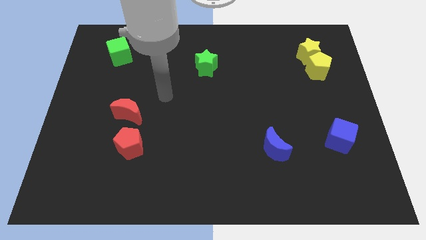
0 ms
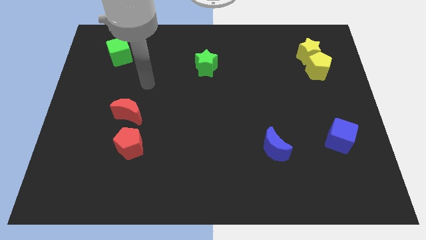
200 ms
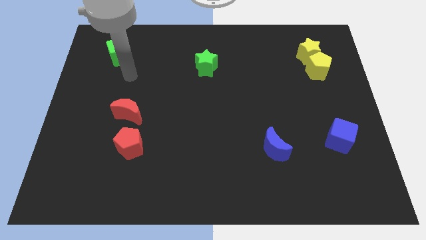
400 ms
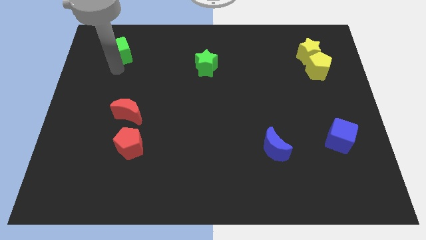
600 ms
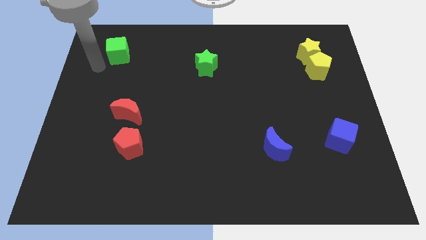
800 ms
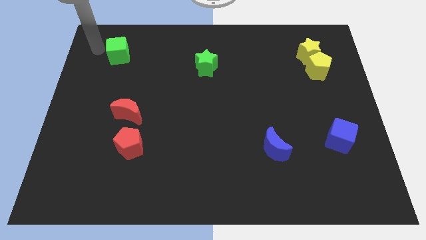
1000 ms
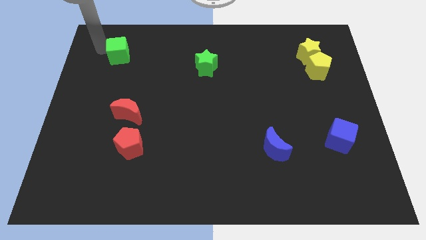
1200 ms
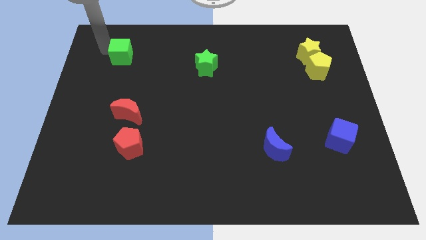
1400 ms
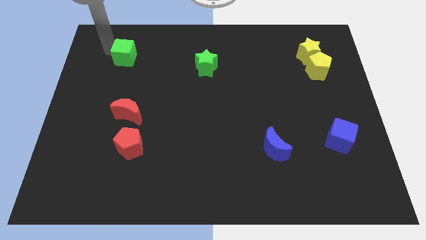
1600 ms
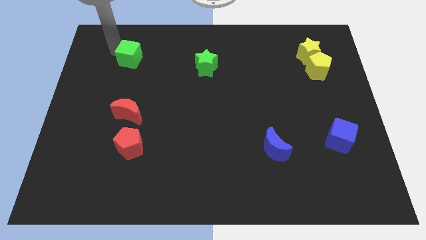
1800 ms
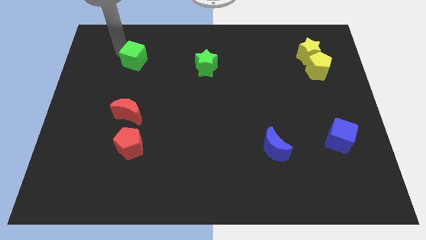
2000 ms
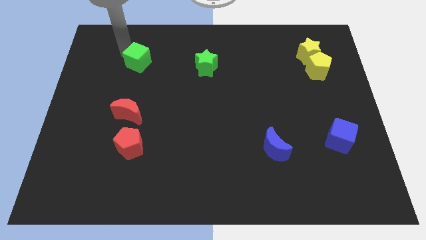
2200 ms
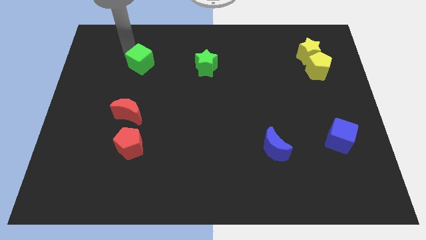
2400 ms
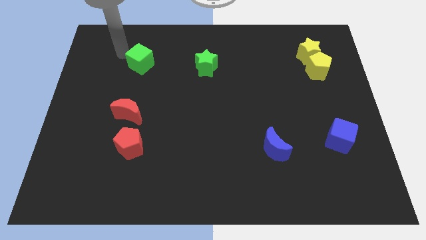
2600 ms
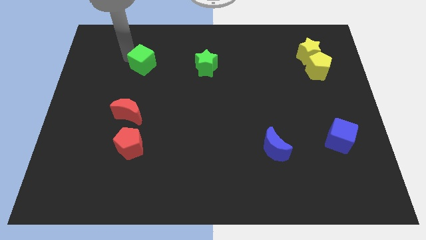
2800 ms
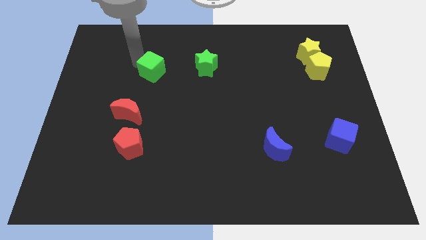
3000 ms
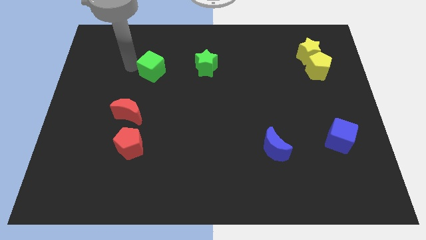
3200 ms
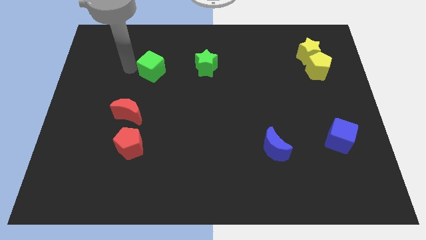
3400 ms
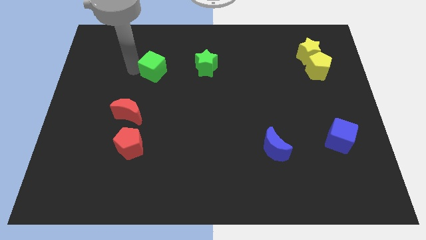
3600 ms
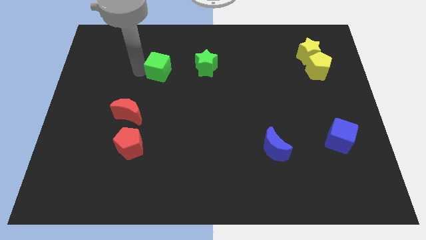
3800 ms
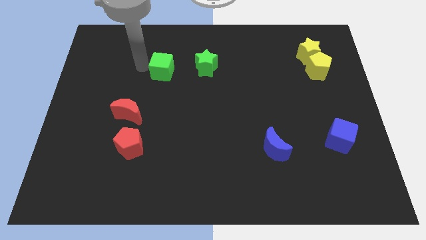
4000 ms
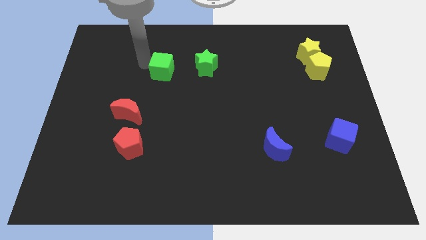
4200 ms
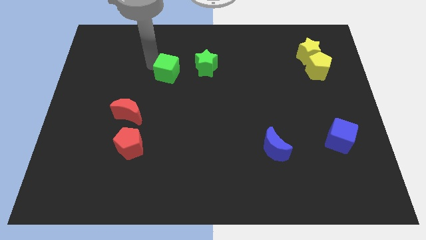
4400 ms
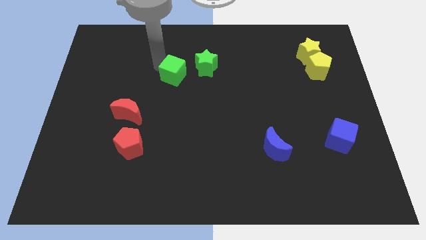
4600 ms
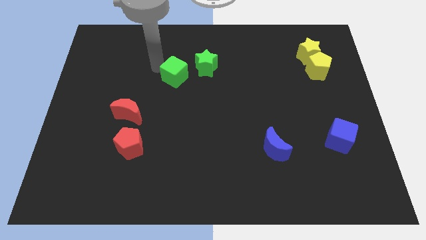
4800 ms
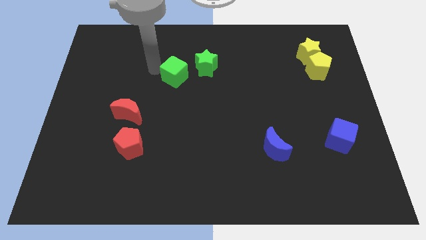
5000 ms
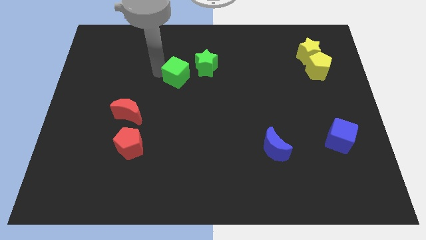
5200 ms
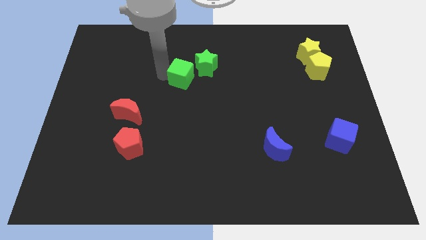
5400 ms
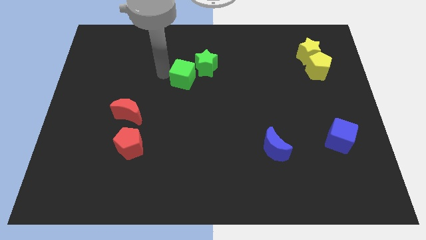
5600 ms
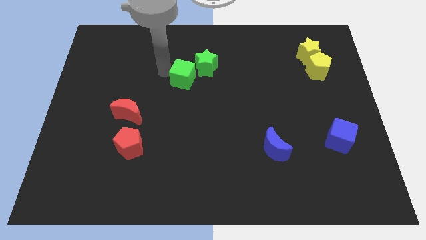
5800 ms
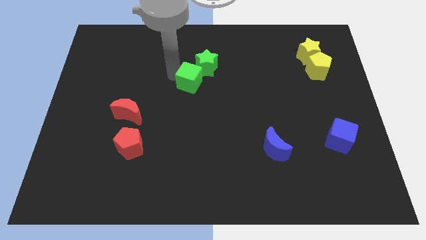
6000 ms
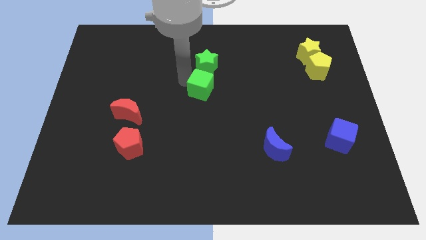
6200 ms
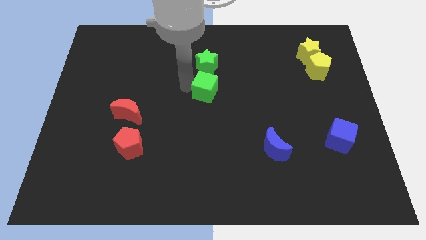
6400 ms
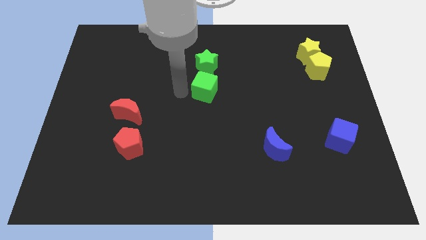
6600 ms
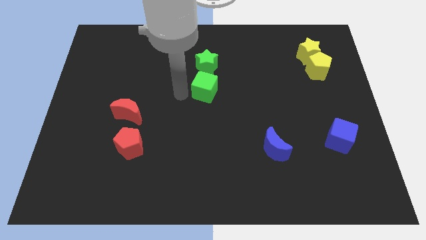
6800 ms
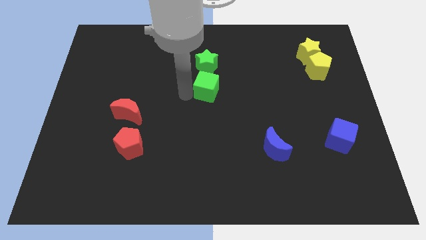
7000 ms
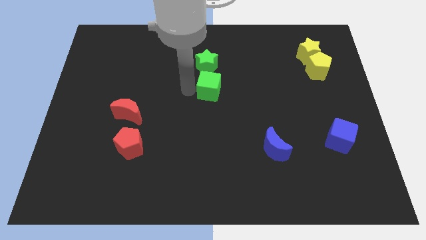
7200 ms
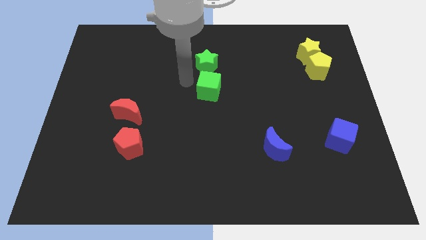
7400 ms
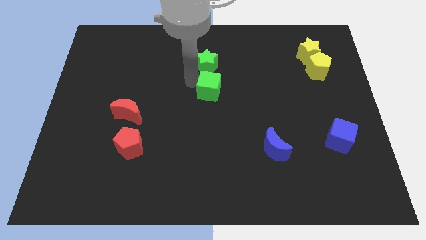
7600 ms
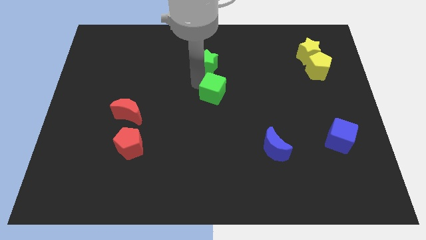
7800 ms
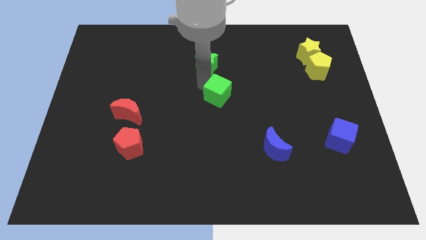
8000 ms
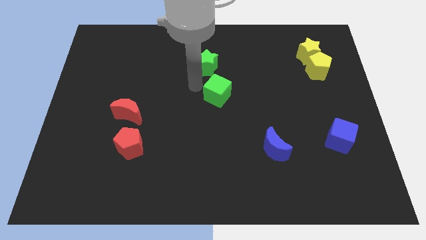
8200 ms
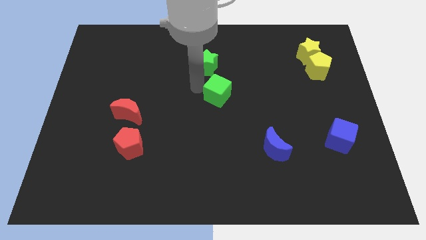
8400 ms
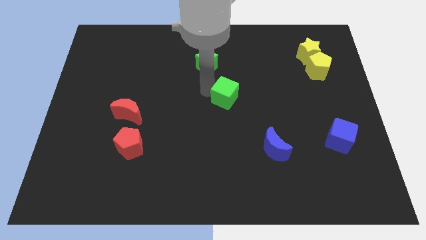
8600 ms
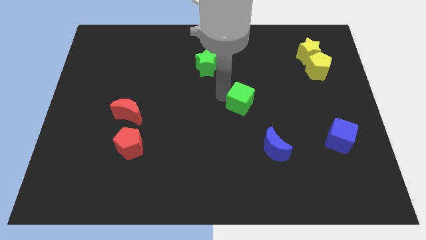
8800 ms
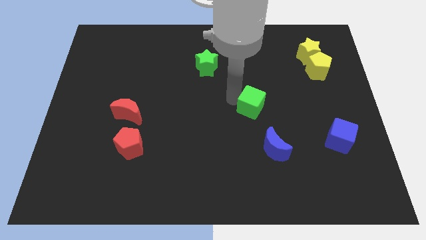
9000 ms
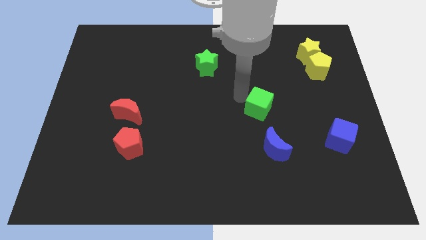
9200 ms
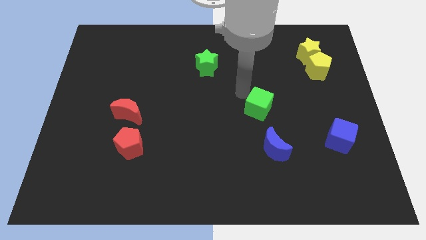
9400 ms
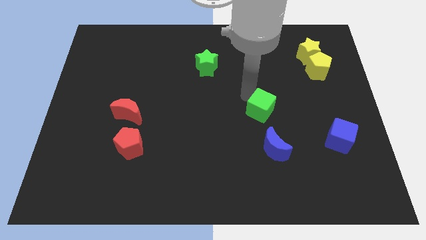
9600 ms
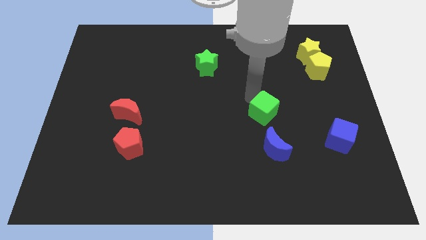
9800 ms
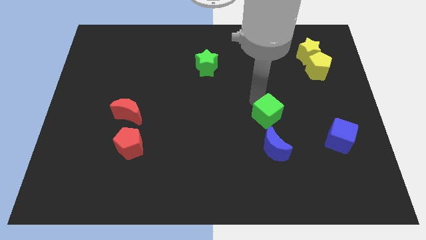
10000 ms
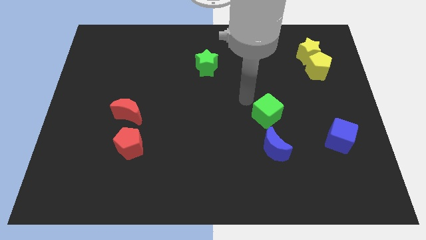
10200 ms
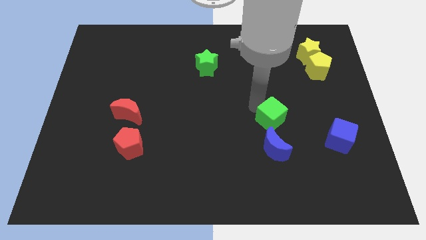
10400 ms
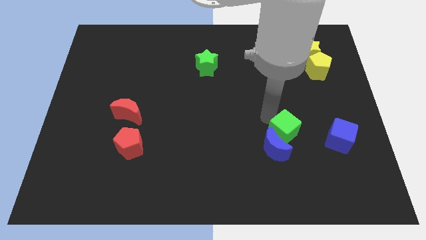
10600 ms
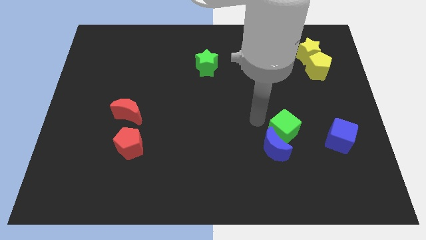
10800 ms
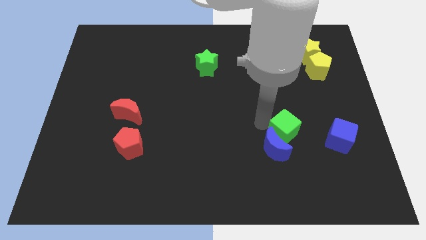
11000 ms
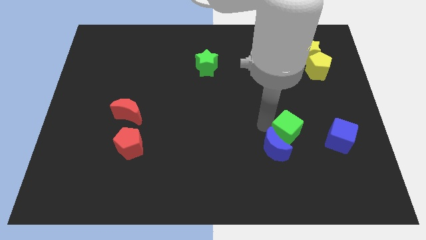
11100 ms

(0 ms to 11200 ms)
slide the green cube just right of the blue moon

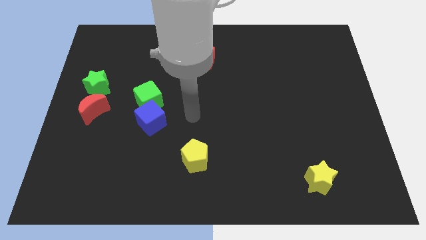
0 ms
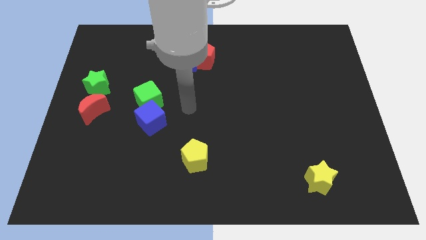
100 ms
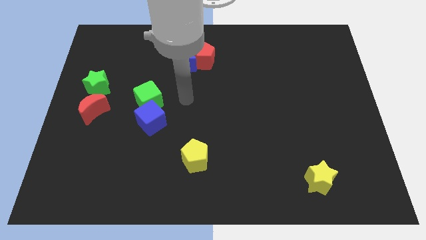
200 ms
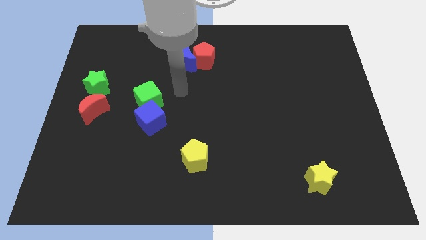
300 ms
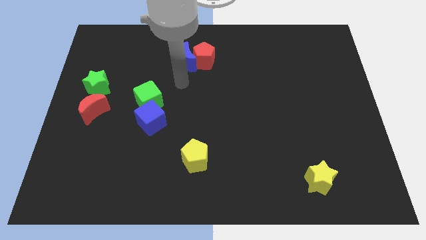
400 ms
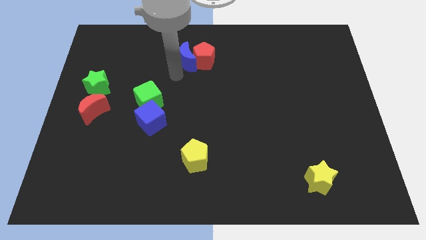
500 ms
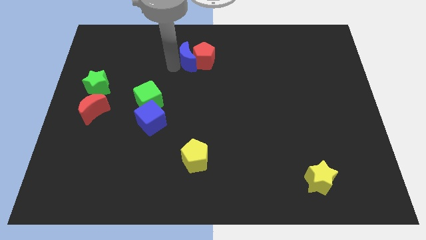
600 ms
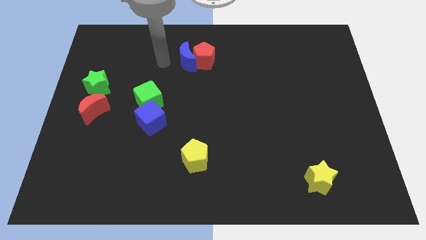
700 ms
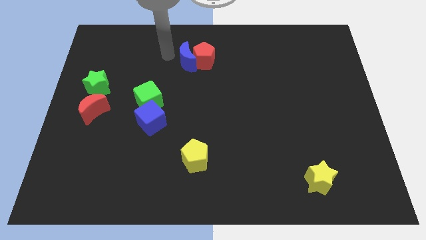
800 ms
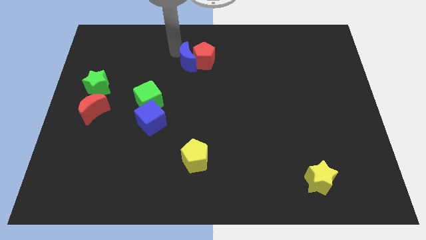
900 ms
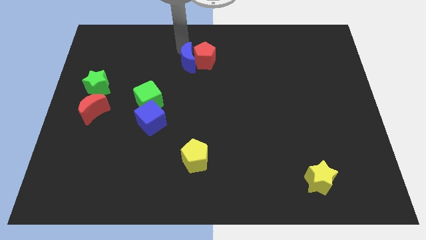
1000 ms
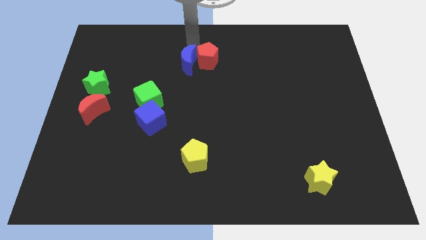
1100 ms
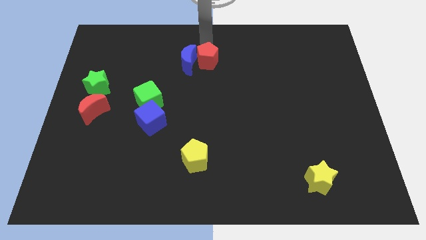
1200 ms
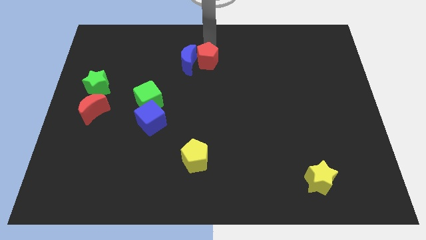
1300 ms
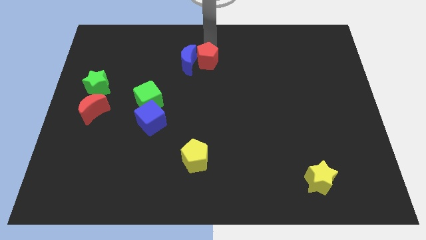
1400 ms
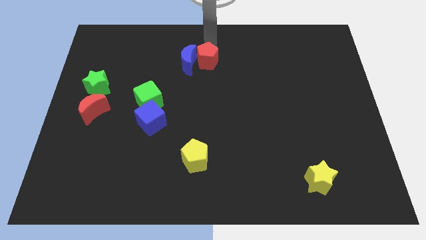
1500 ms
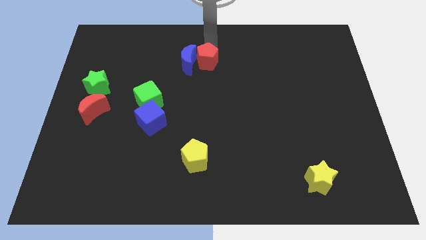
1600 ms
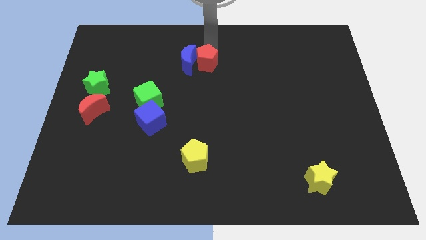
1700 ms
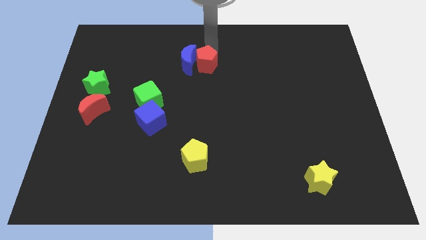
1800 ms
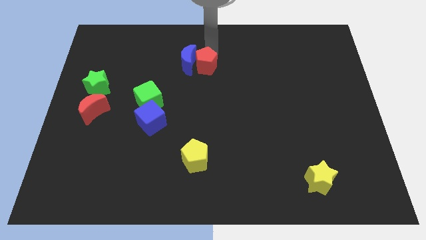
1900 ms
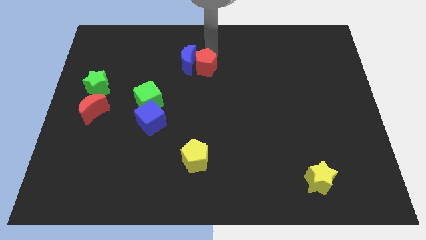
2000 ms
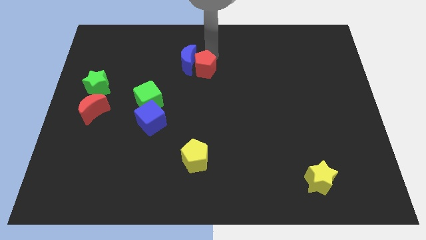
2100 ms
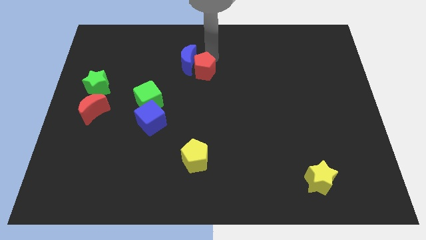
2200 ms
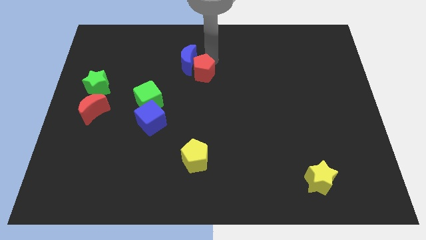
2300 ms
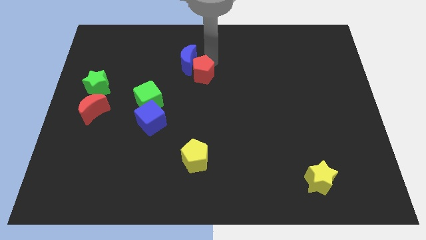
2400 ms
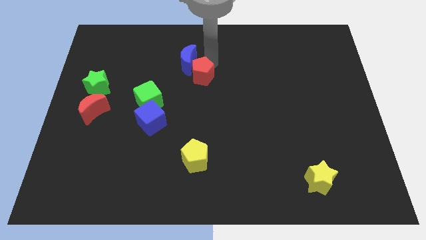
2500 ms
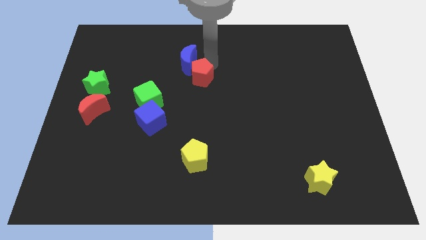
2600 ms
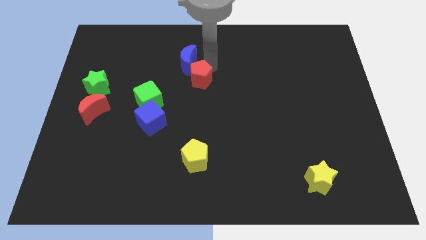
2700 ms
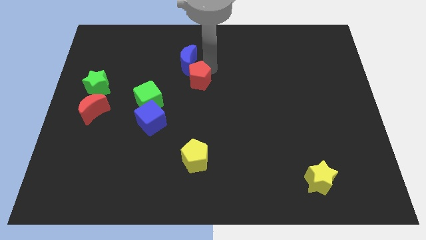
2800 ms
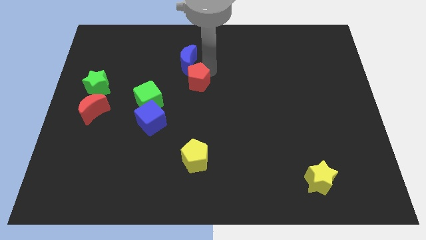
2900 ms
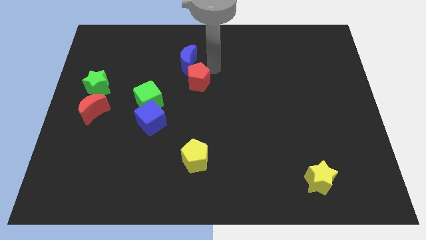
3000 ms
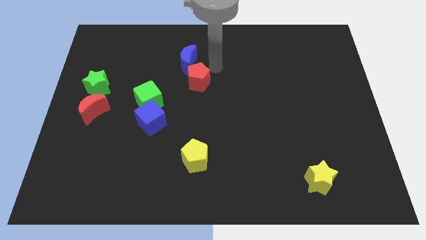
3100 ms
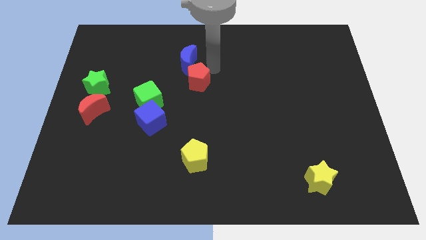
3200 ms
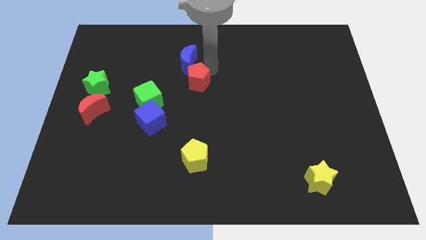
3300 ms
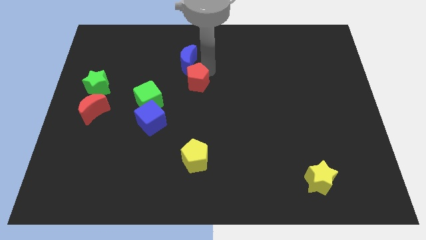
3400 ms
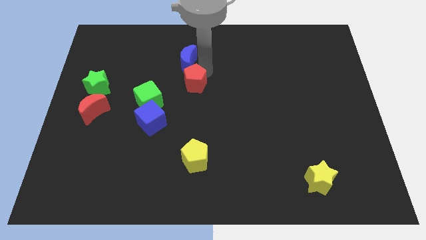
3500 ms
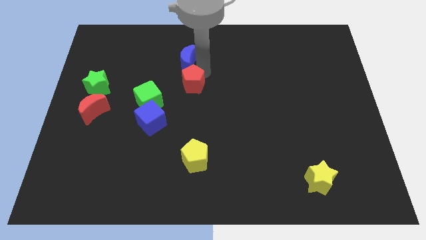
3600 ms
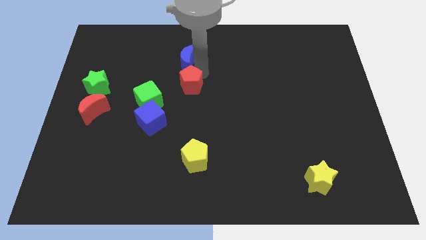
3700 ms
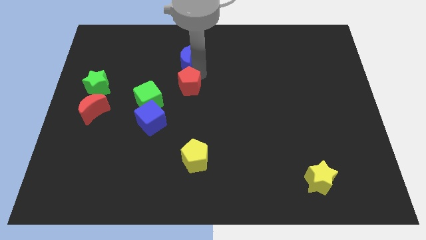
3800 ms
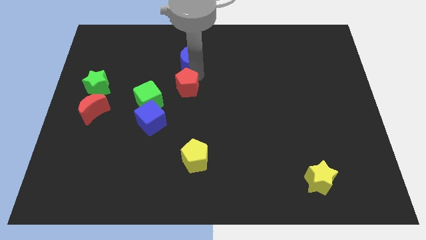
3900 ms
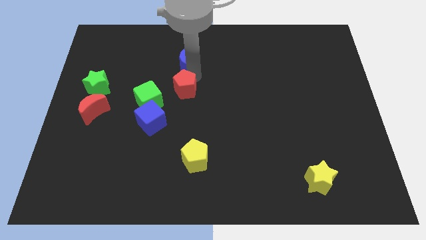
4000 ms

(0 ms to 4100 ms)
move the red pentagon to the top right of the blue cube
